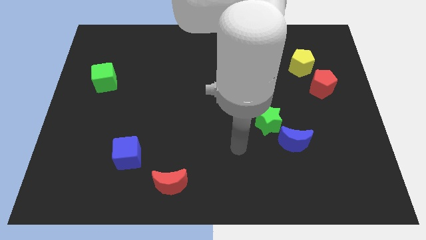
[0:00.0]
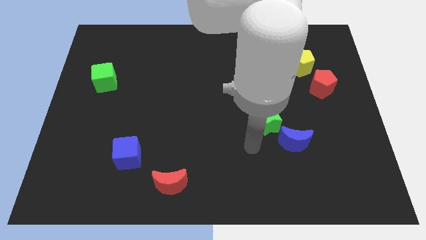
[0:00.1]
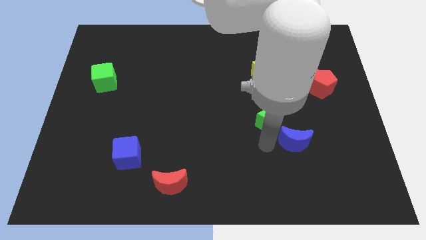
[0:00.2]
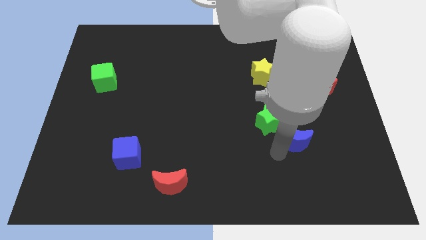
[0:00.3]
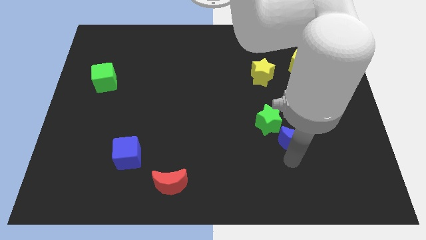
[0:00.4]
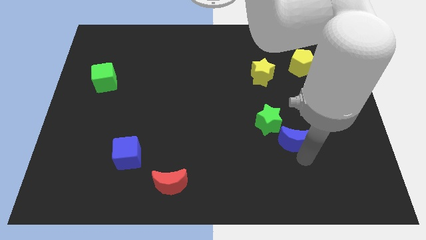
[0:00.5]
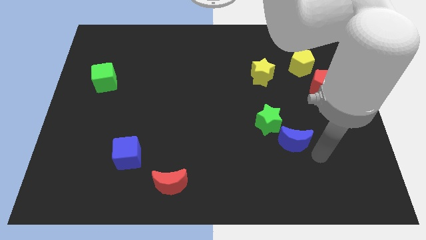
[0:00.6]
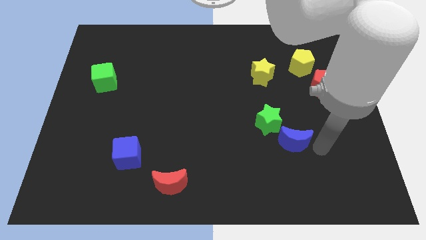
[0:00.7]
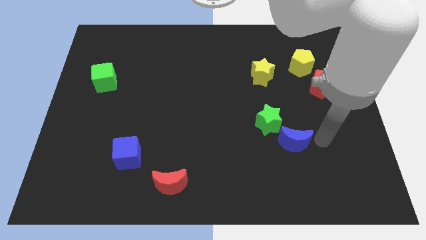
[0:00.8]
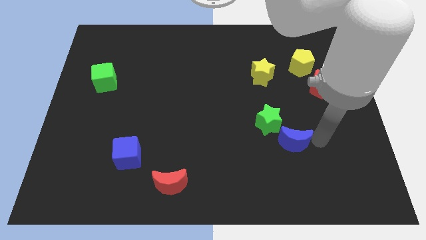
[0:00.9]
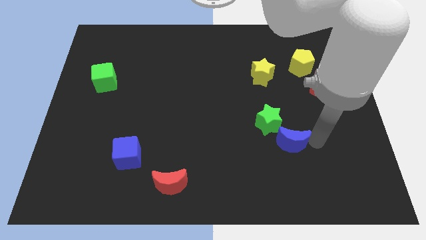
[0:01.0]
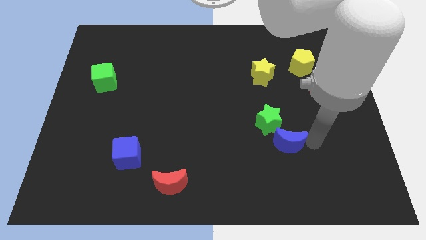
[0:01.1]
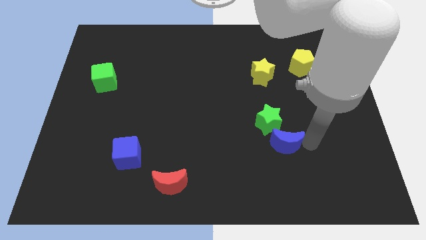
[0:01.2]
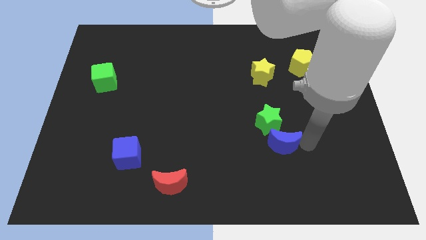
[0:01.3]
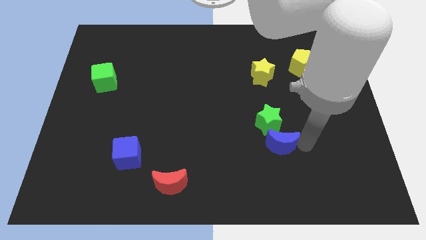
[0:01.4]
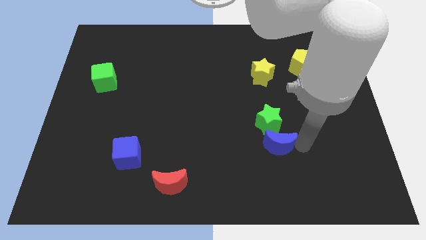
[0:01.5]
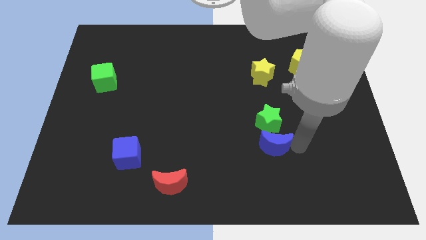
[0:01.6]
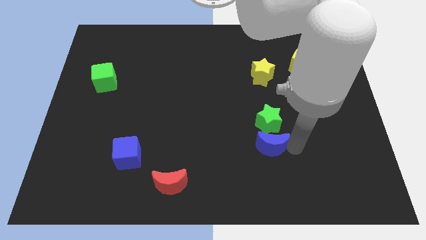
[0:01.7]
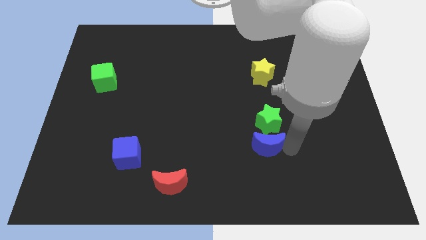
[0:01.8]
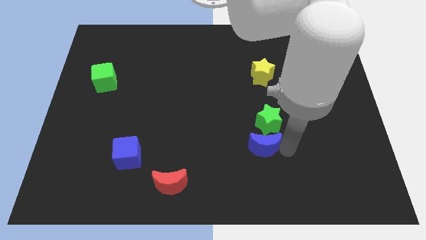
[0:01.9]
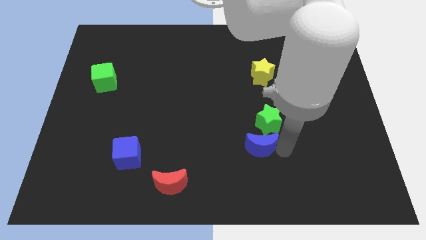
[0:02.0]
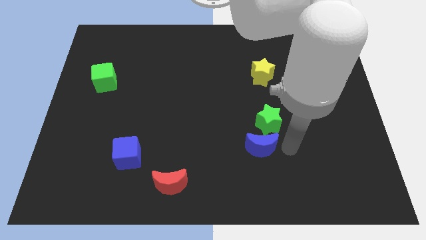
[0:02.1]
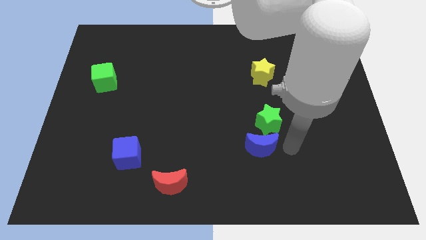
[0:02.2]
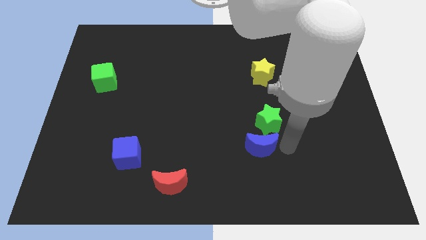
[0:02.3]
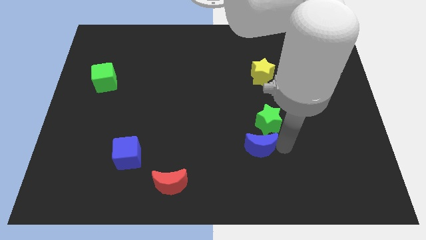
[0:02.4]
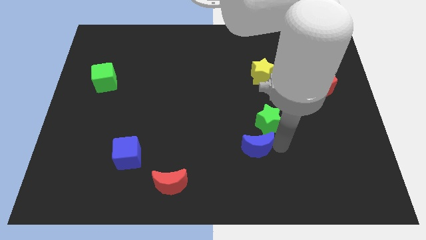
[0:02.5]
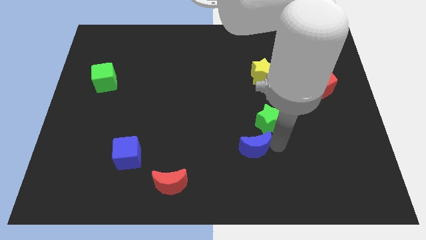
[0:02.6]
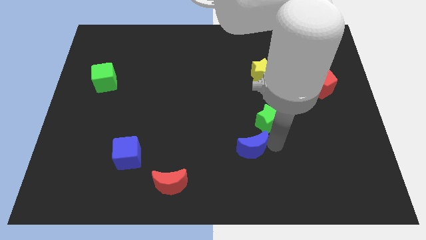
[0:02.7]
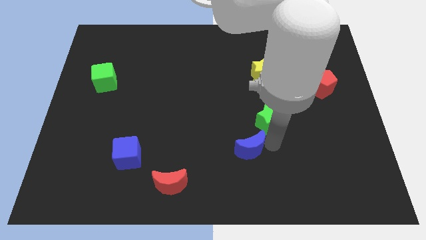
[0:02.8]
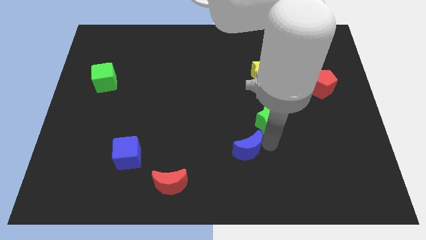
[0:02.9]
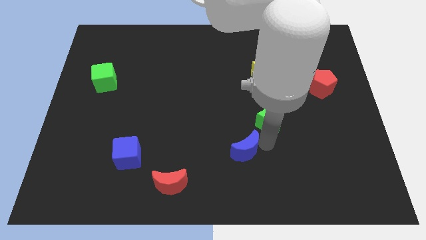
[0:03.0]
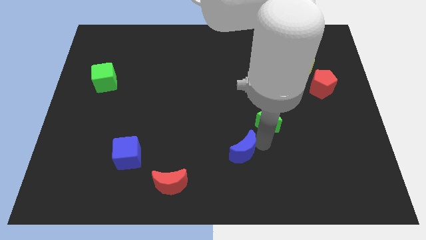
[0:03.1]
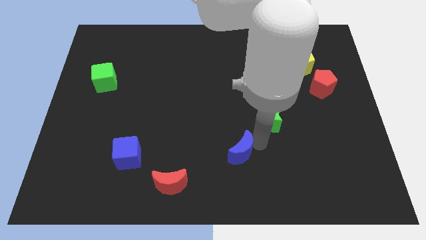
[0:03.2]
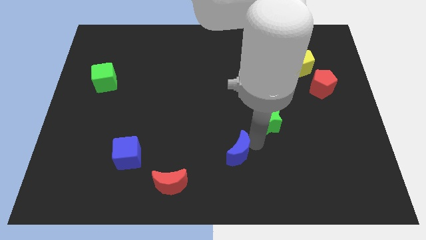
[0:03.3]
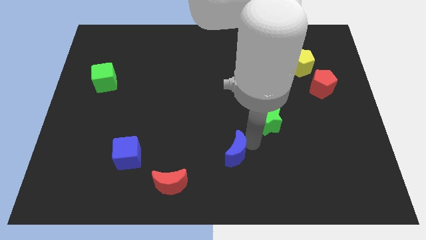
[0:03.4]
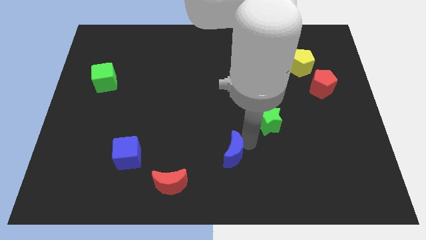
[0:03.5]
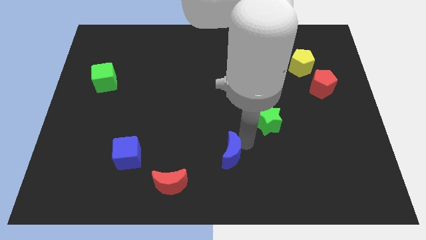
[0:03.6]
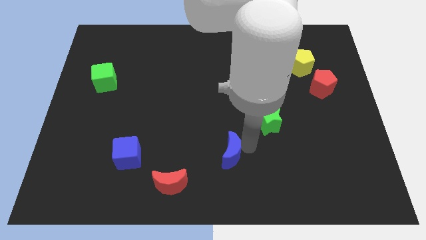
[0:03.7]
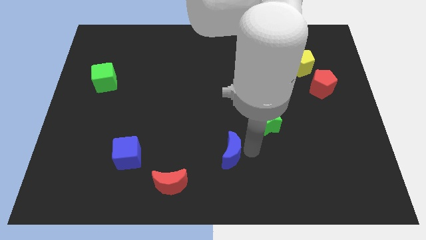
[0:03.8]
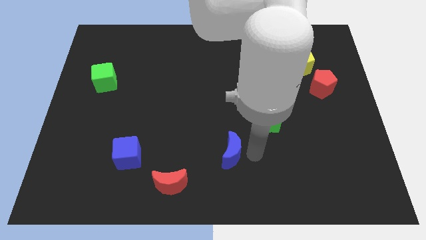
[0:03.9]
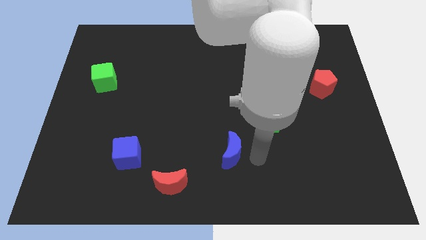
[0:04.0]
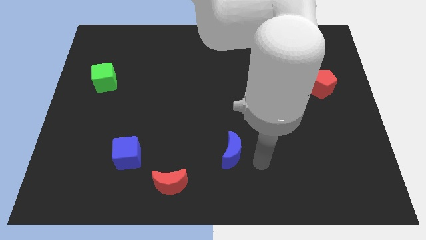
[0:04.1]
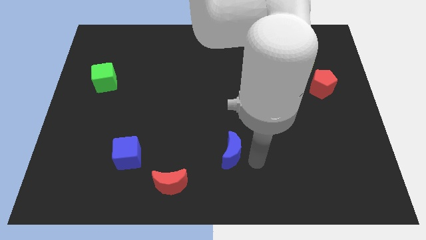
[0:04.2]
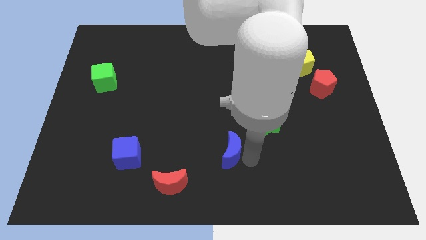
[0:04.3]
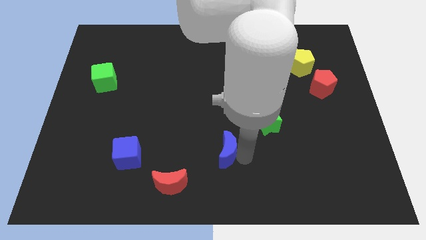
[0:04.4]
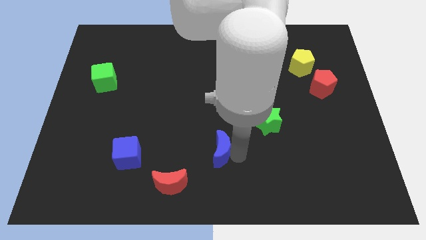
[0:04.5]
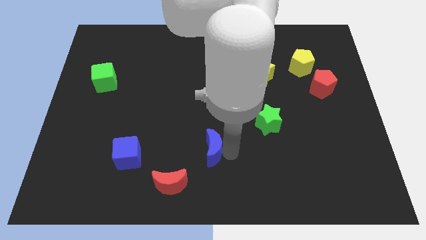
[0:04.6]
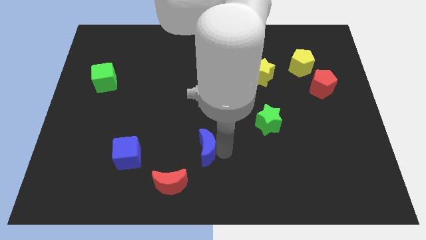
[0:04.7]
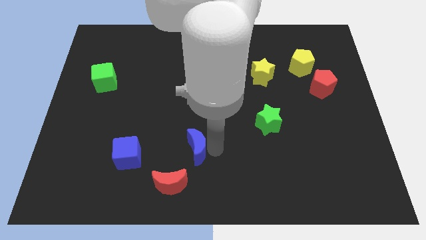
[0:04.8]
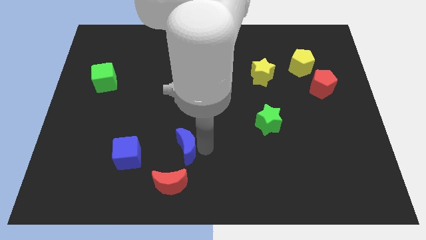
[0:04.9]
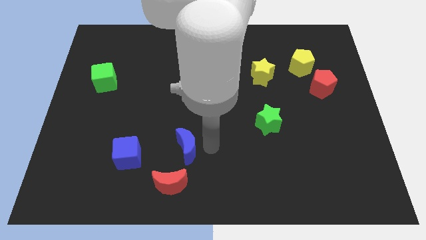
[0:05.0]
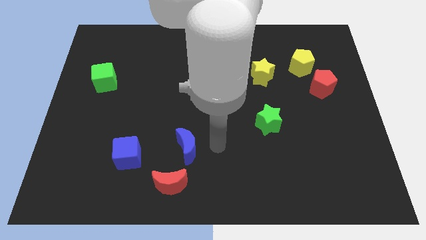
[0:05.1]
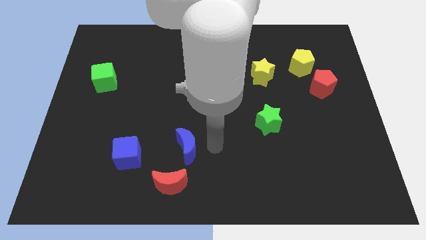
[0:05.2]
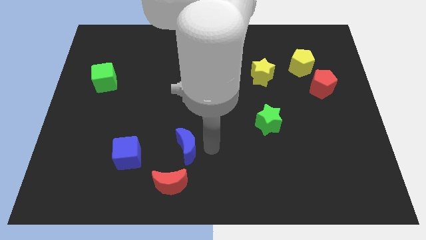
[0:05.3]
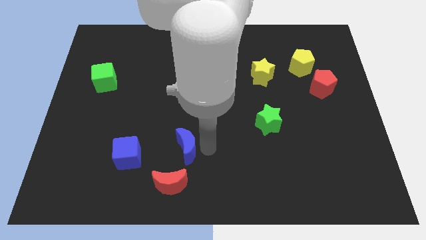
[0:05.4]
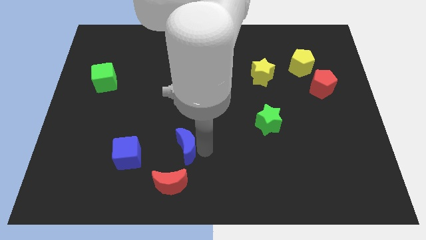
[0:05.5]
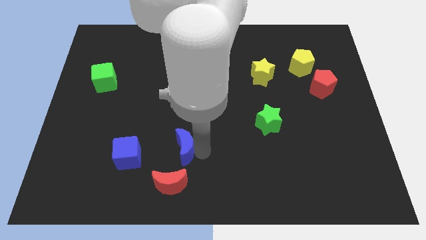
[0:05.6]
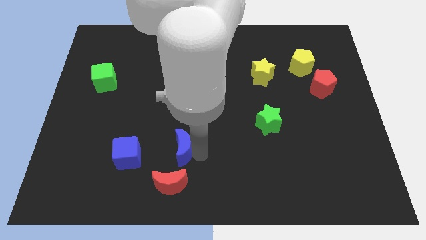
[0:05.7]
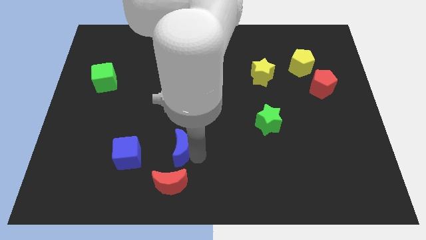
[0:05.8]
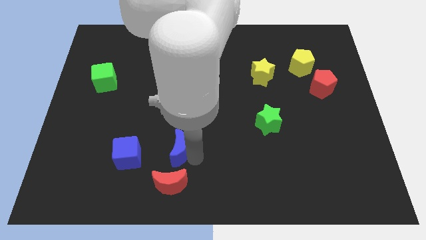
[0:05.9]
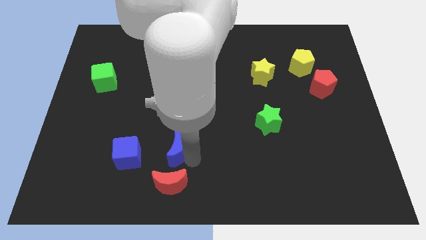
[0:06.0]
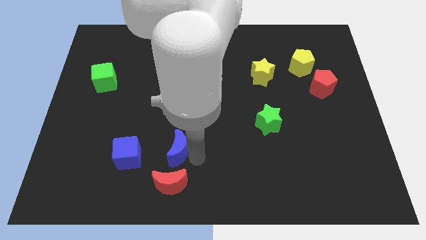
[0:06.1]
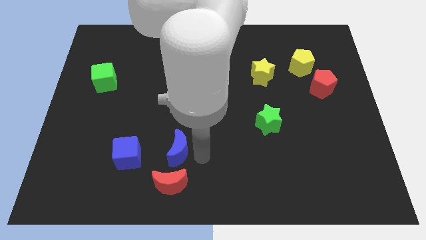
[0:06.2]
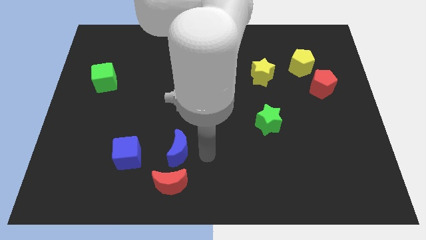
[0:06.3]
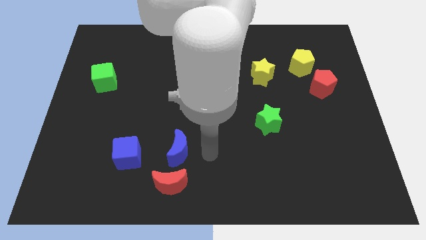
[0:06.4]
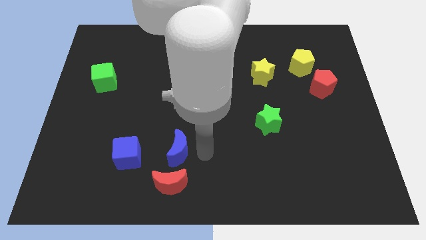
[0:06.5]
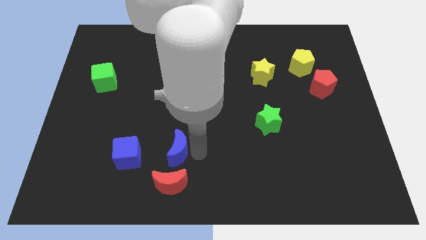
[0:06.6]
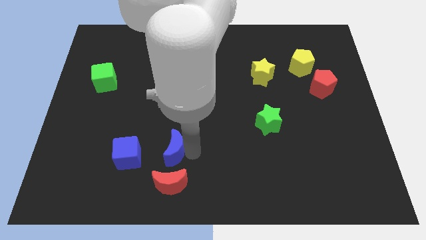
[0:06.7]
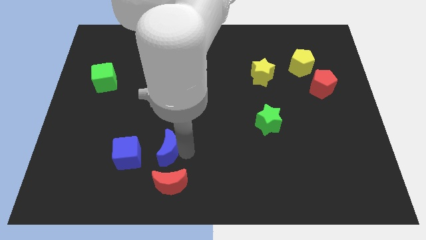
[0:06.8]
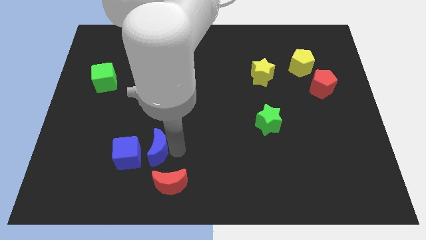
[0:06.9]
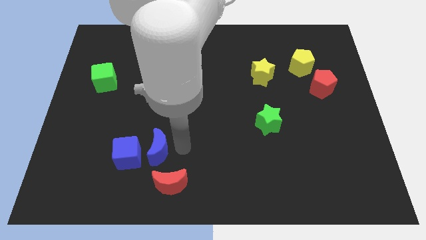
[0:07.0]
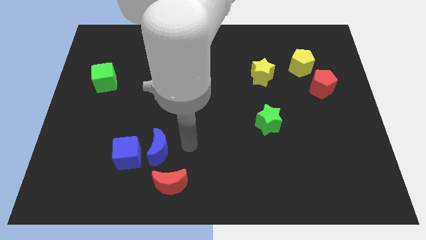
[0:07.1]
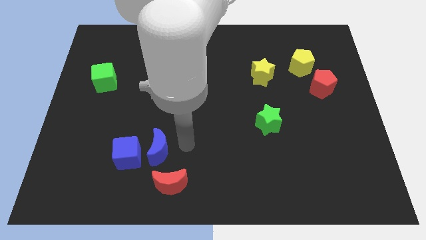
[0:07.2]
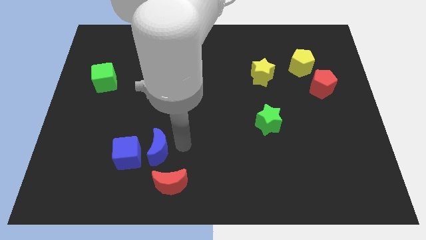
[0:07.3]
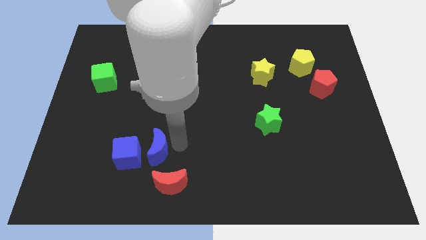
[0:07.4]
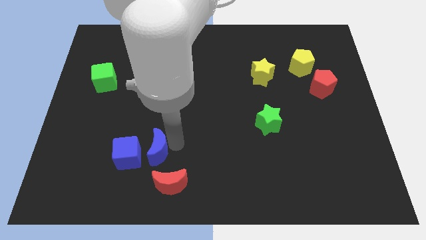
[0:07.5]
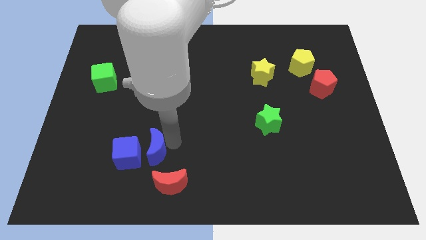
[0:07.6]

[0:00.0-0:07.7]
put the blue moon next to the blue cube
